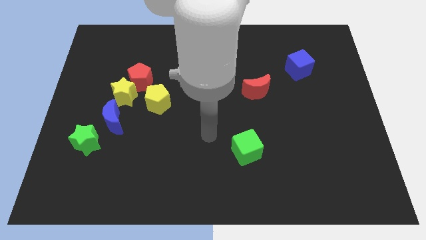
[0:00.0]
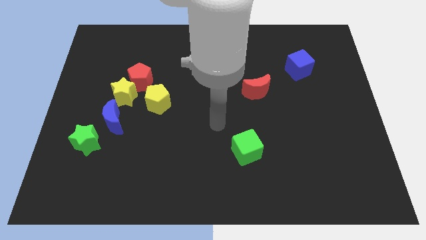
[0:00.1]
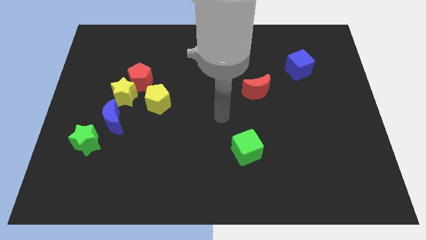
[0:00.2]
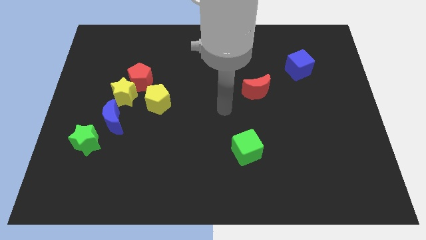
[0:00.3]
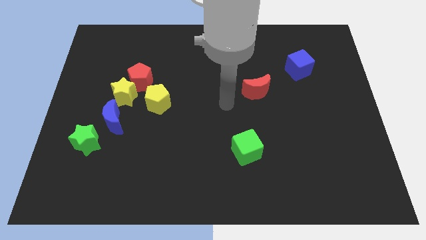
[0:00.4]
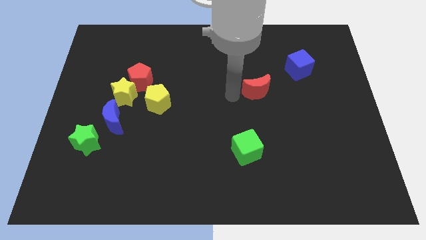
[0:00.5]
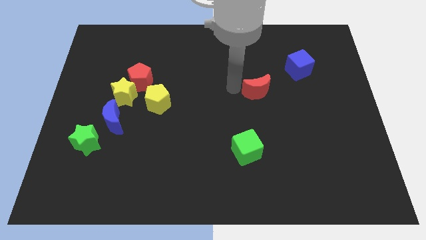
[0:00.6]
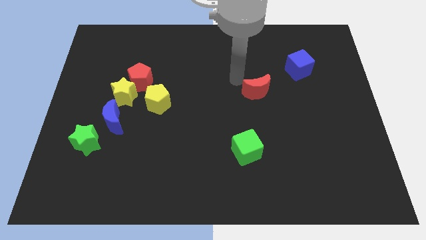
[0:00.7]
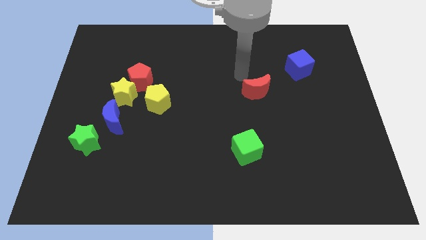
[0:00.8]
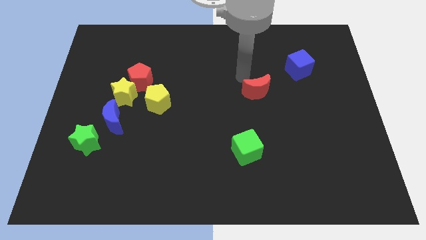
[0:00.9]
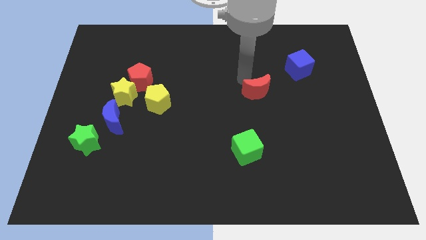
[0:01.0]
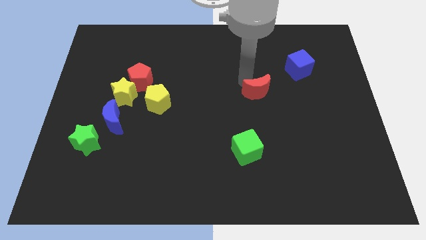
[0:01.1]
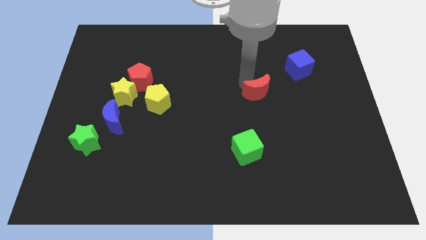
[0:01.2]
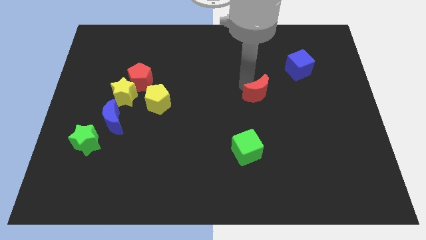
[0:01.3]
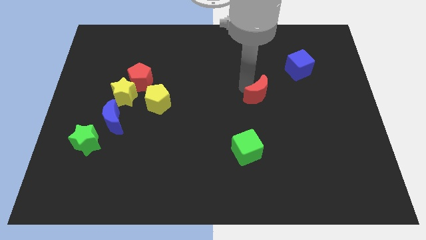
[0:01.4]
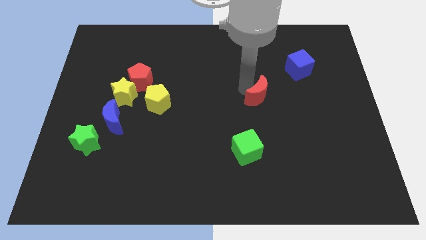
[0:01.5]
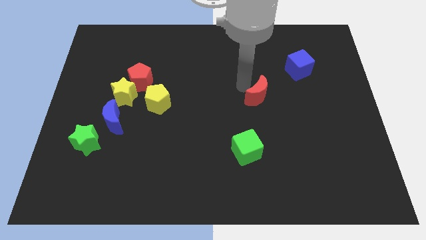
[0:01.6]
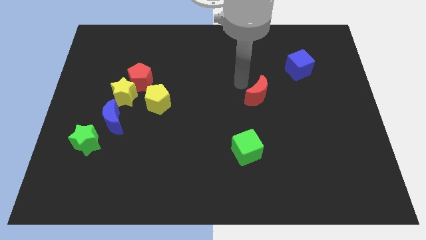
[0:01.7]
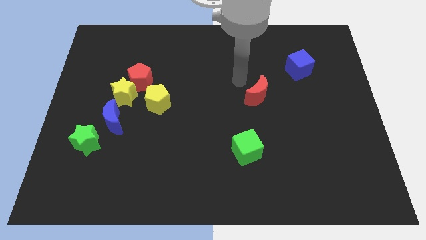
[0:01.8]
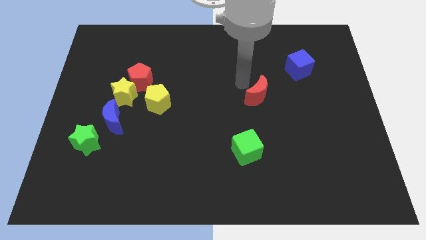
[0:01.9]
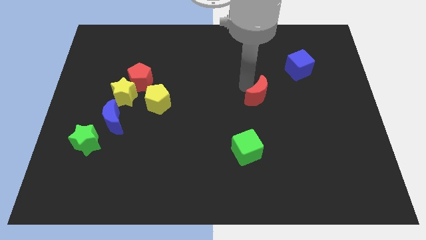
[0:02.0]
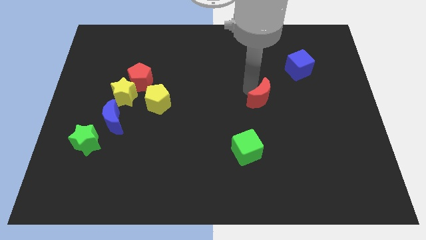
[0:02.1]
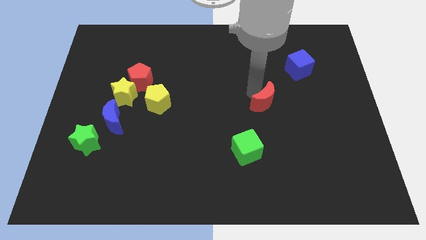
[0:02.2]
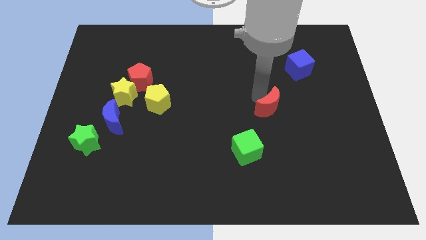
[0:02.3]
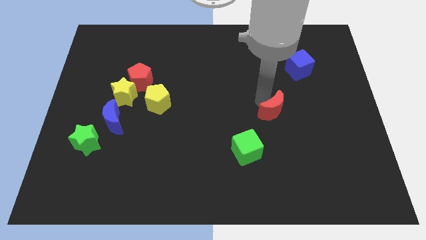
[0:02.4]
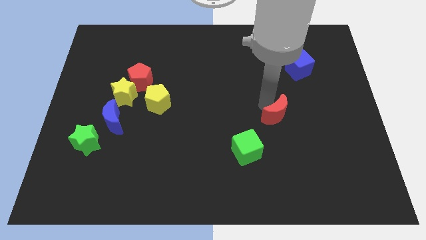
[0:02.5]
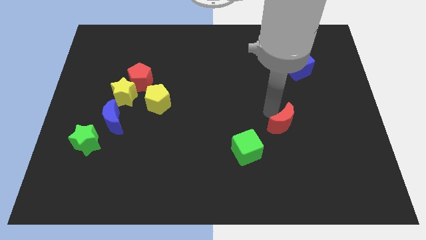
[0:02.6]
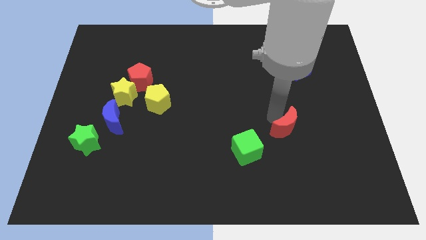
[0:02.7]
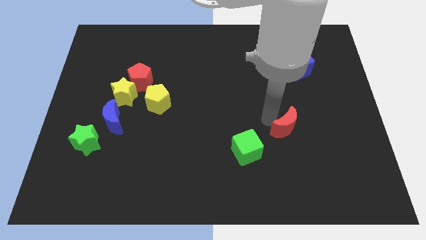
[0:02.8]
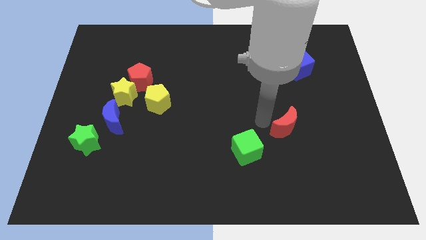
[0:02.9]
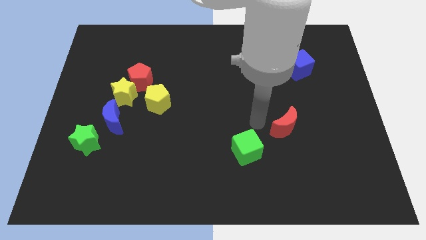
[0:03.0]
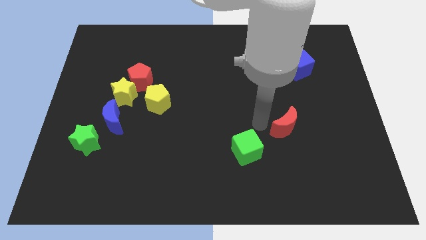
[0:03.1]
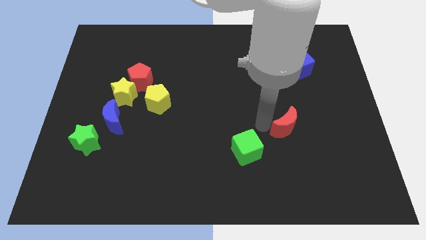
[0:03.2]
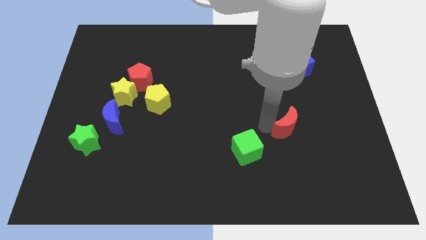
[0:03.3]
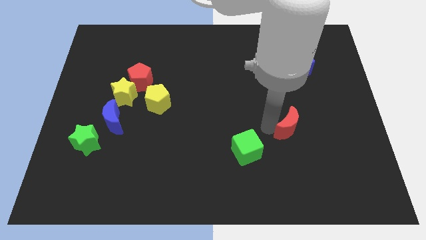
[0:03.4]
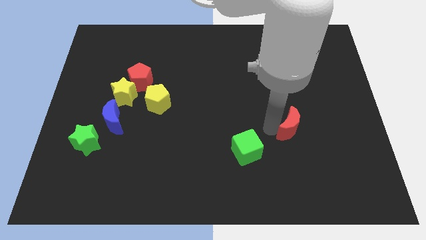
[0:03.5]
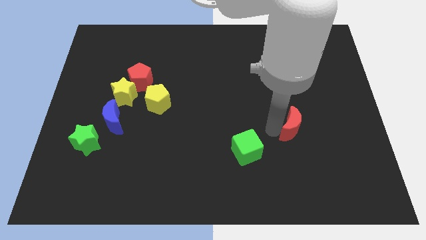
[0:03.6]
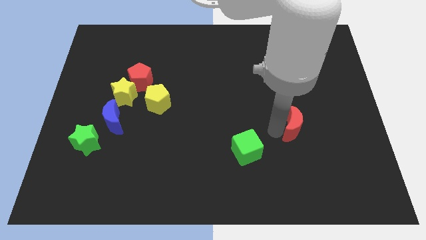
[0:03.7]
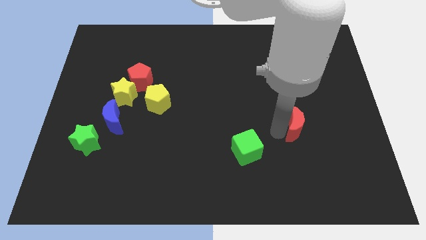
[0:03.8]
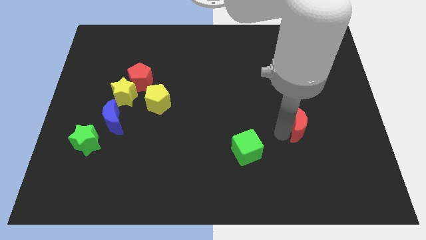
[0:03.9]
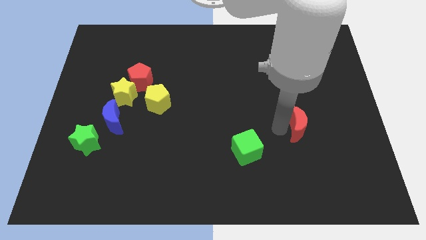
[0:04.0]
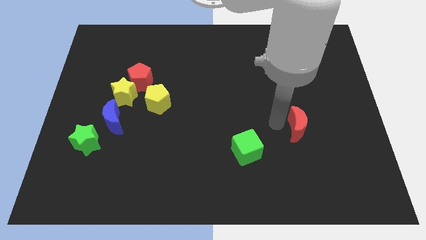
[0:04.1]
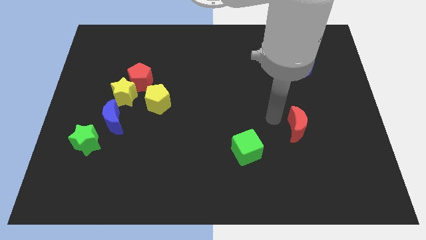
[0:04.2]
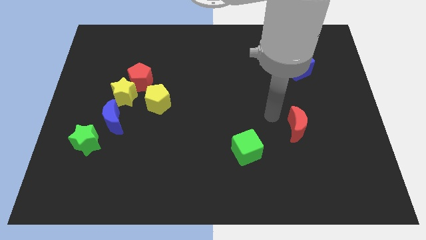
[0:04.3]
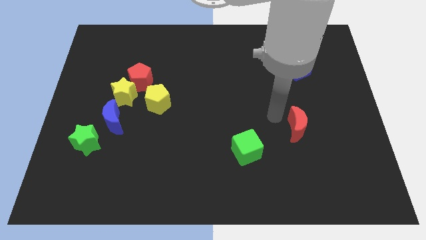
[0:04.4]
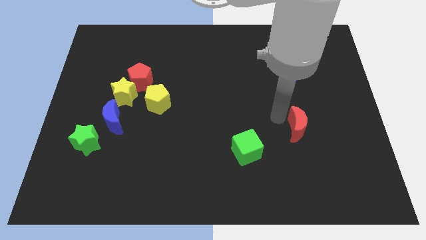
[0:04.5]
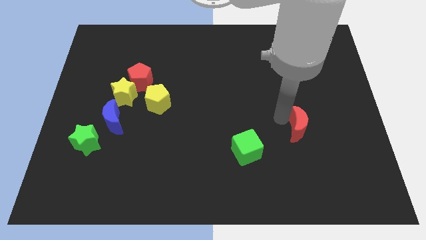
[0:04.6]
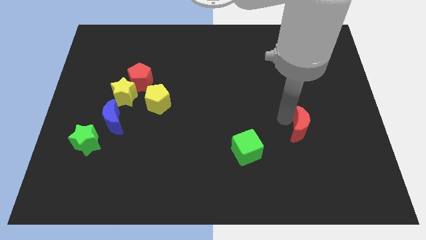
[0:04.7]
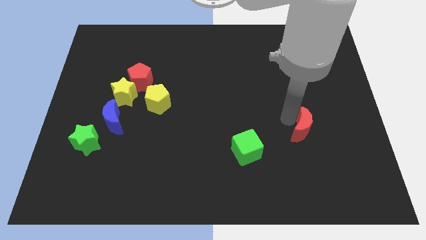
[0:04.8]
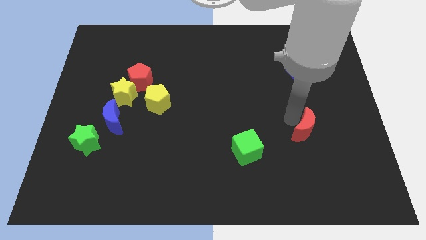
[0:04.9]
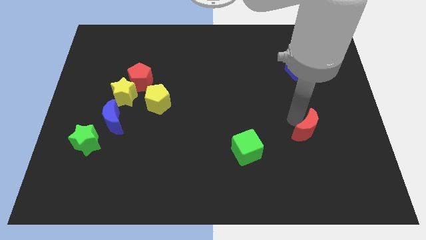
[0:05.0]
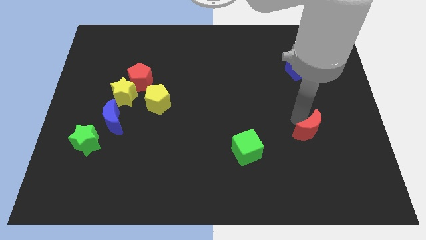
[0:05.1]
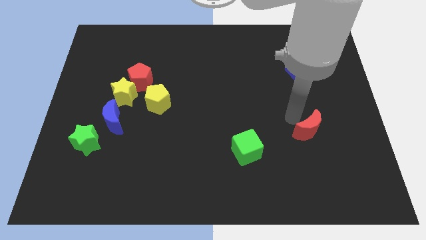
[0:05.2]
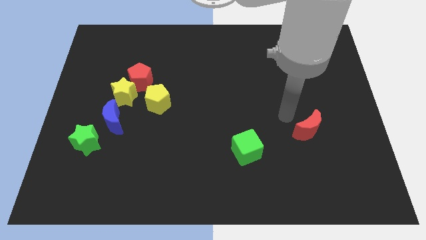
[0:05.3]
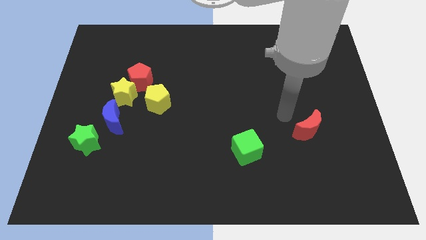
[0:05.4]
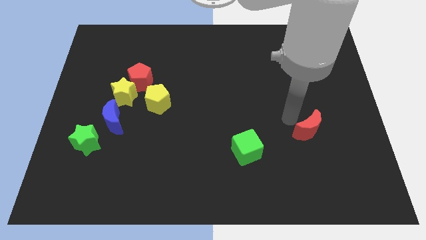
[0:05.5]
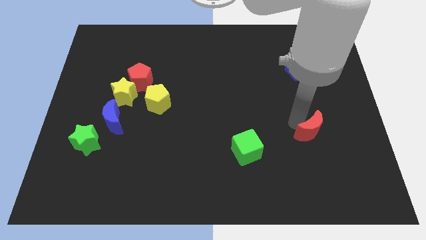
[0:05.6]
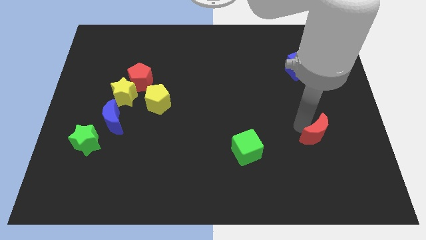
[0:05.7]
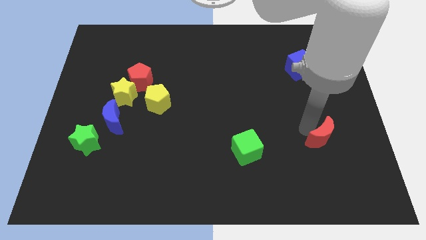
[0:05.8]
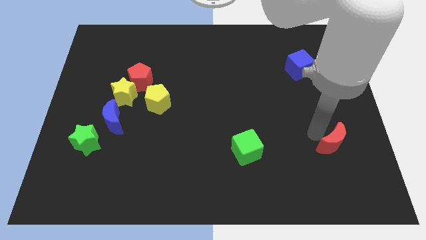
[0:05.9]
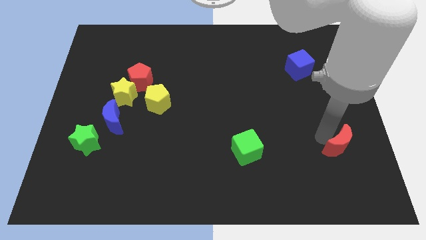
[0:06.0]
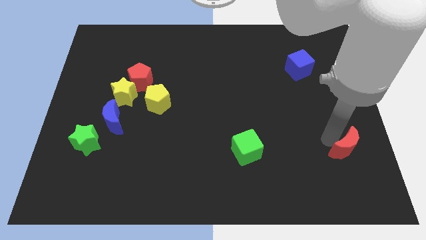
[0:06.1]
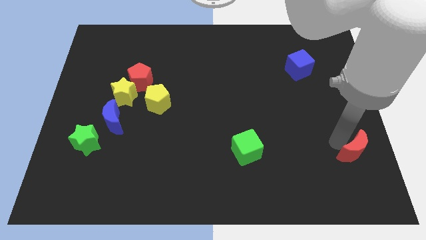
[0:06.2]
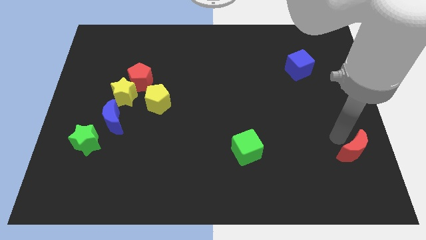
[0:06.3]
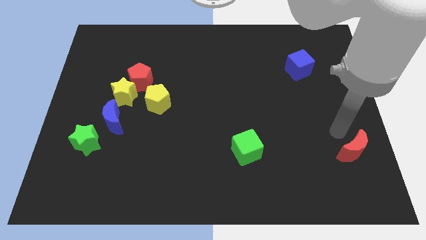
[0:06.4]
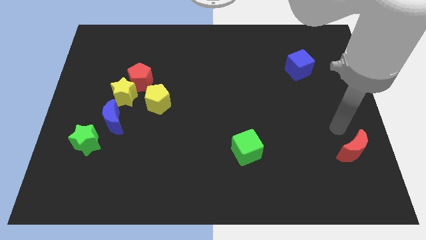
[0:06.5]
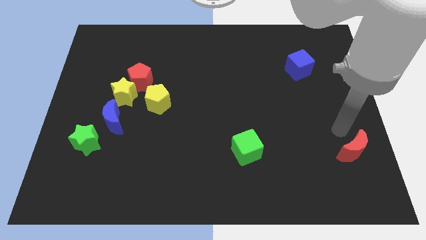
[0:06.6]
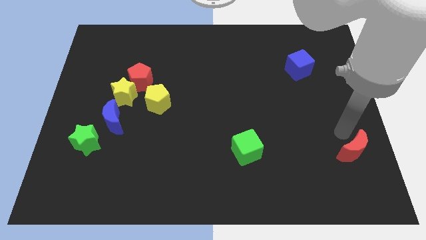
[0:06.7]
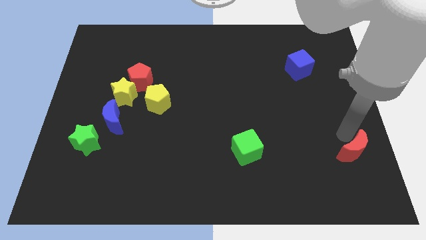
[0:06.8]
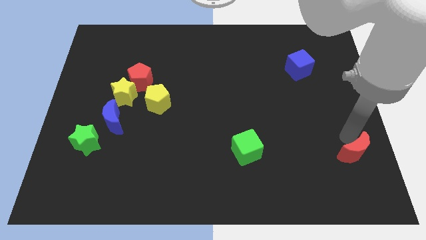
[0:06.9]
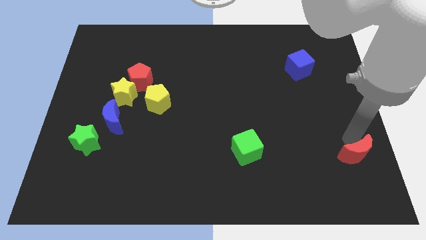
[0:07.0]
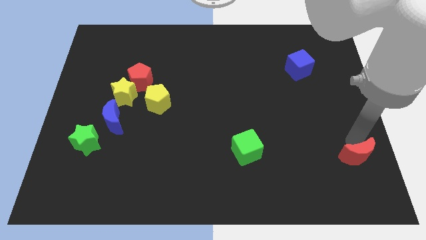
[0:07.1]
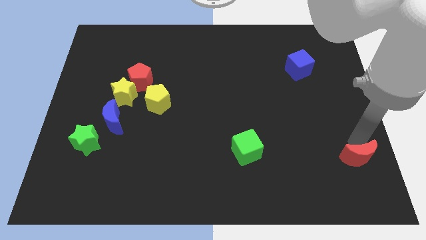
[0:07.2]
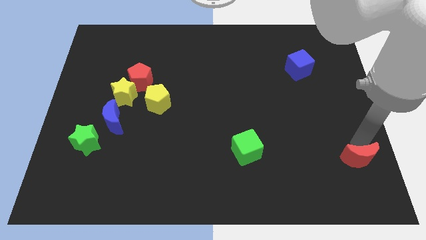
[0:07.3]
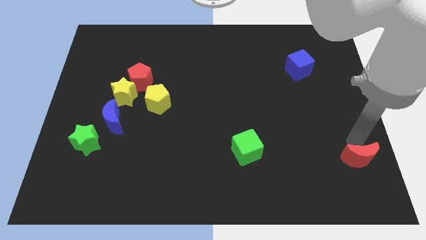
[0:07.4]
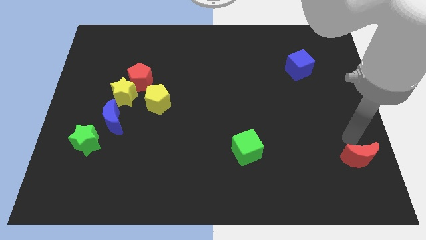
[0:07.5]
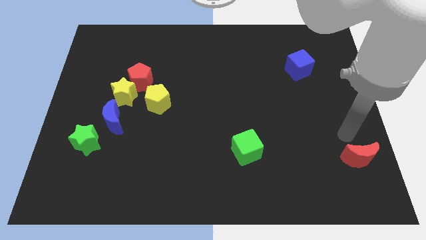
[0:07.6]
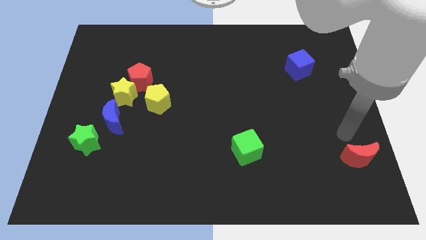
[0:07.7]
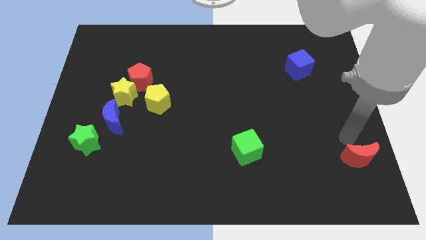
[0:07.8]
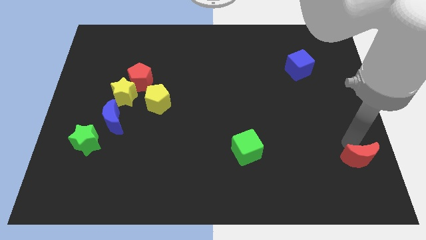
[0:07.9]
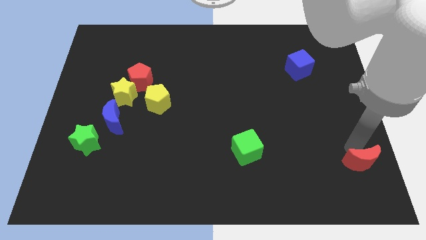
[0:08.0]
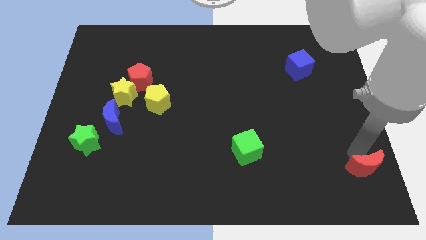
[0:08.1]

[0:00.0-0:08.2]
push the red moon to the bottom right corner
